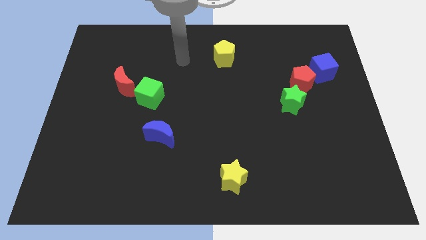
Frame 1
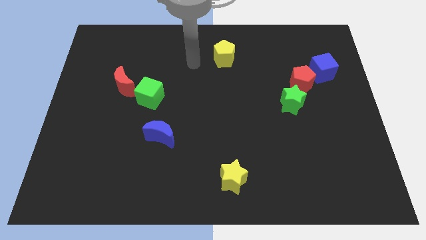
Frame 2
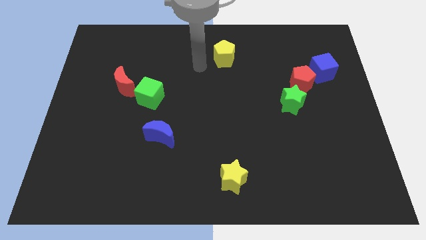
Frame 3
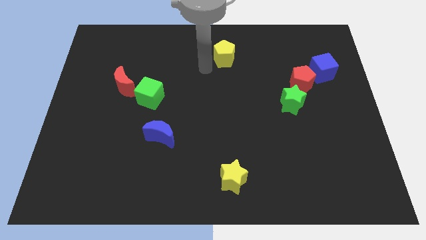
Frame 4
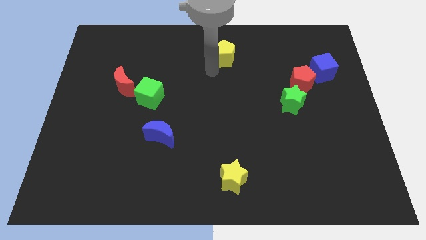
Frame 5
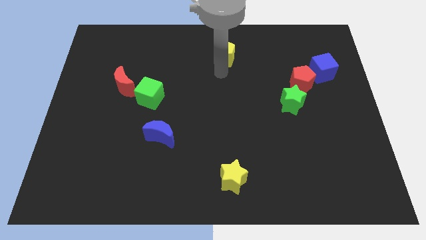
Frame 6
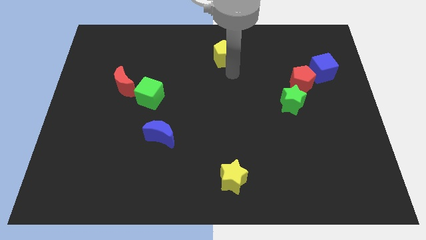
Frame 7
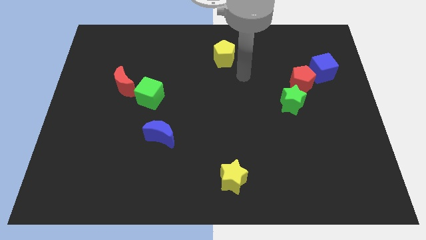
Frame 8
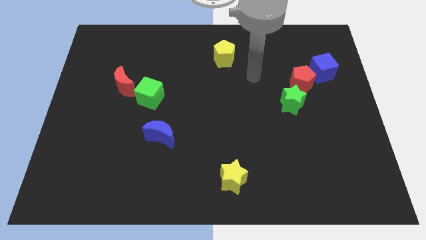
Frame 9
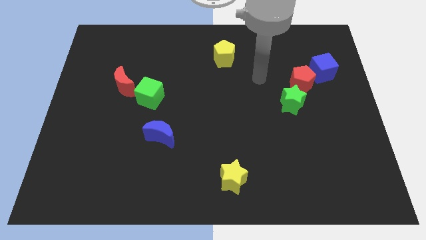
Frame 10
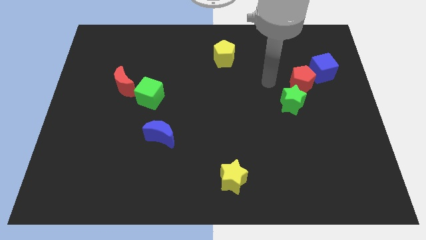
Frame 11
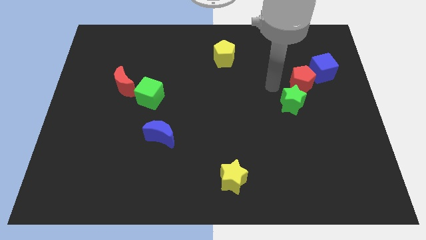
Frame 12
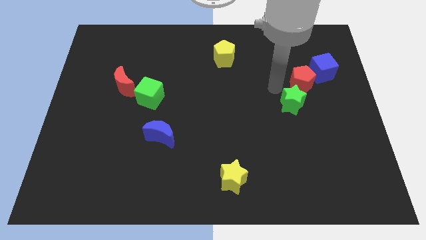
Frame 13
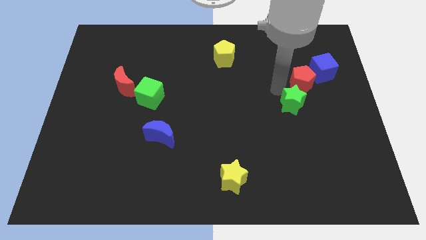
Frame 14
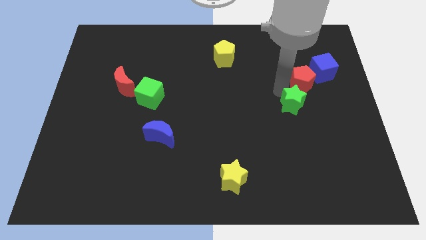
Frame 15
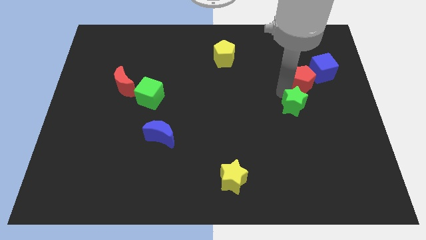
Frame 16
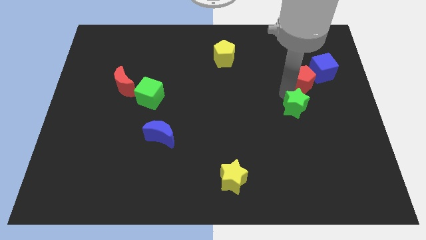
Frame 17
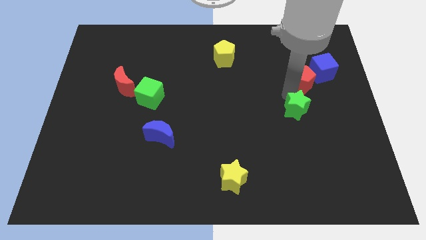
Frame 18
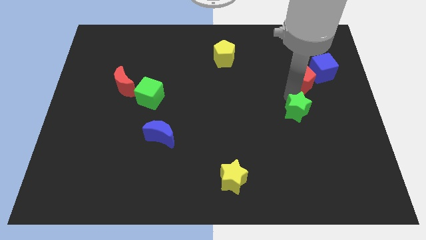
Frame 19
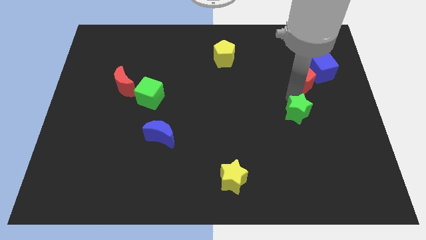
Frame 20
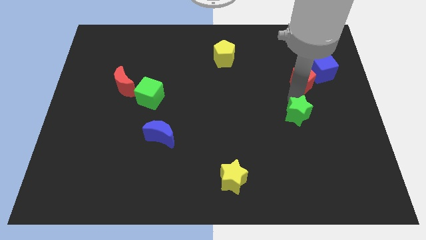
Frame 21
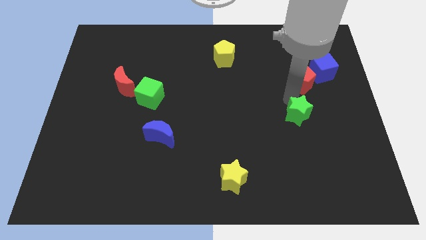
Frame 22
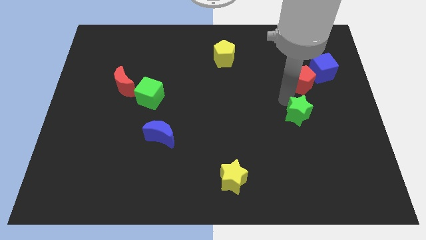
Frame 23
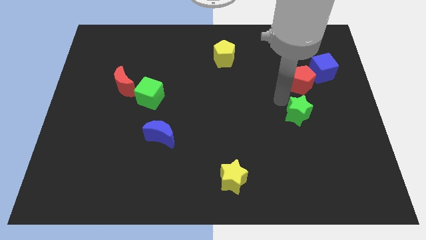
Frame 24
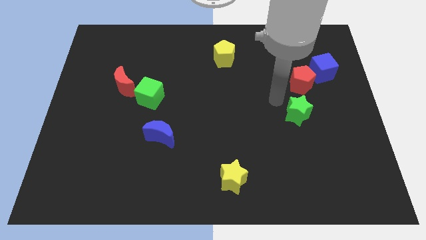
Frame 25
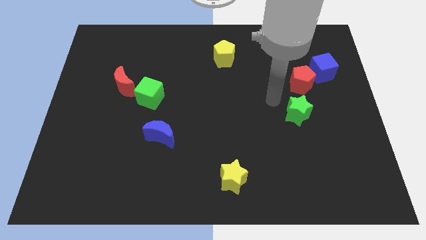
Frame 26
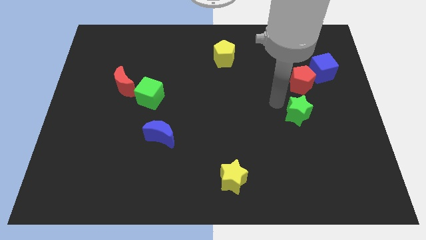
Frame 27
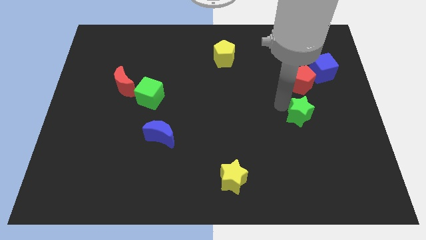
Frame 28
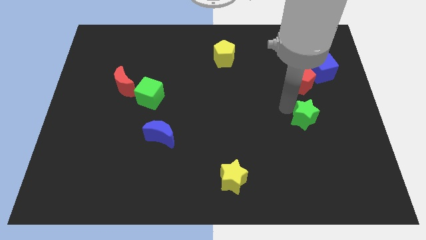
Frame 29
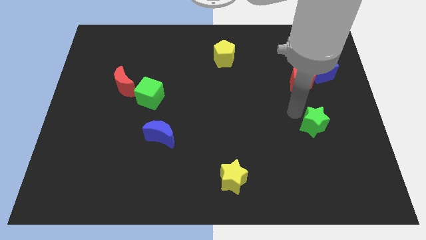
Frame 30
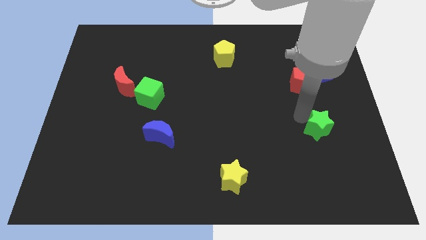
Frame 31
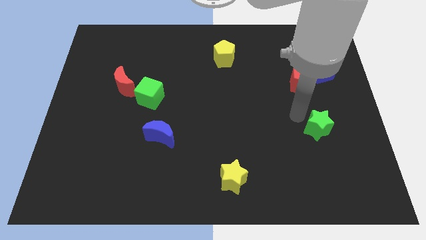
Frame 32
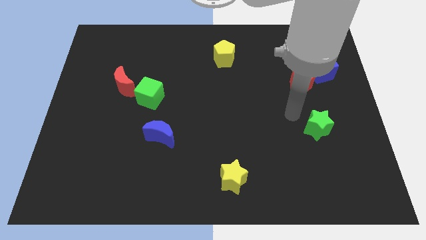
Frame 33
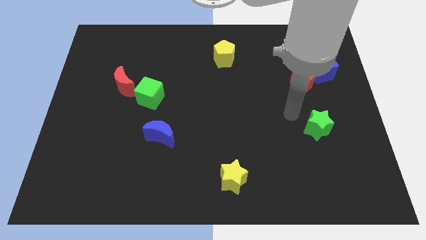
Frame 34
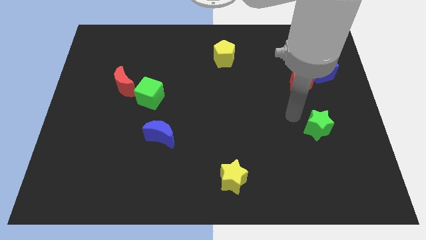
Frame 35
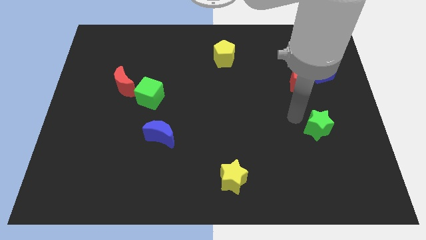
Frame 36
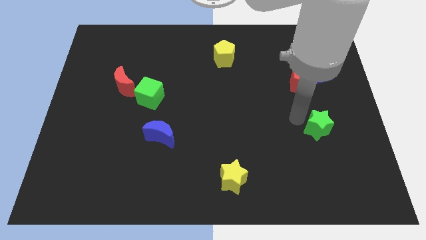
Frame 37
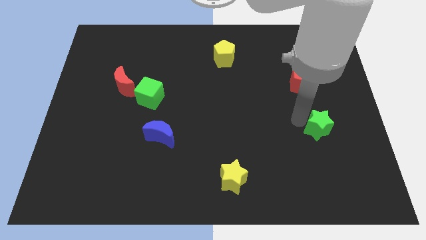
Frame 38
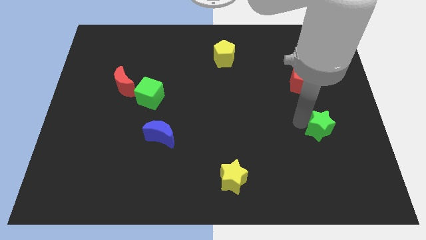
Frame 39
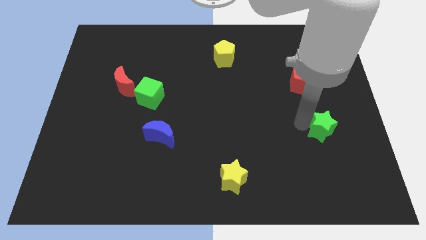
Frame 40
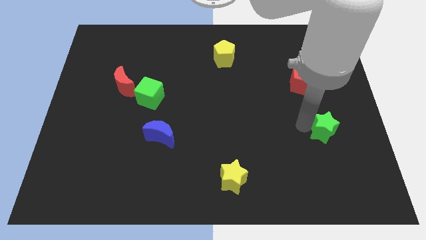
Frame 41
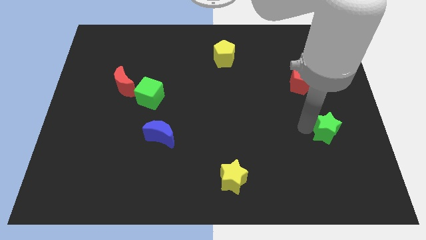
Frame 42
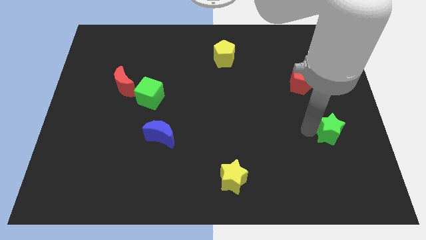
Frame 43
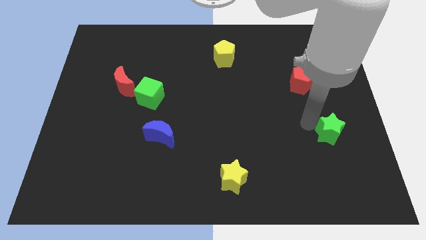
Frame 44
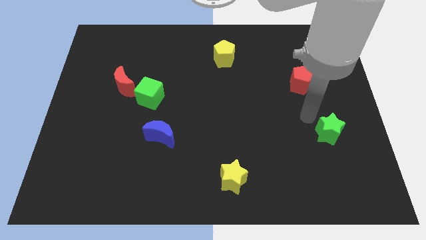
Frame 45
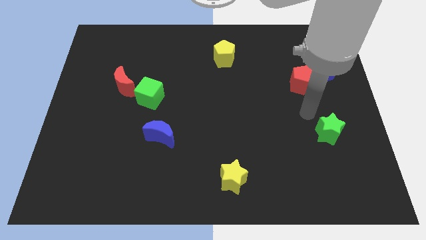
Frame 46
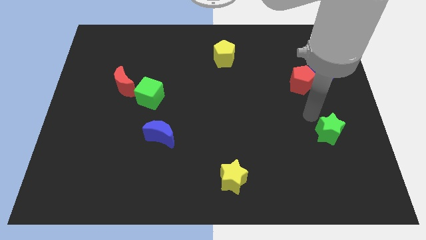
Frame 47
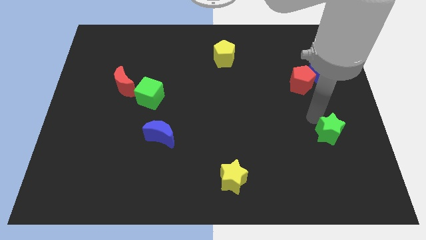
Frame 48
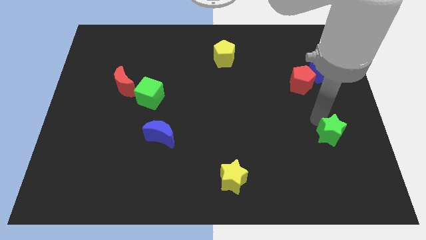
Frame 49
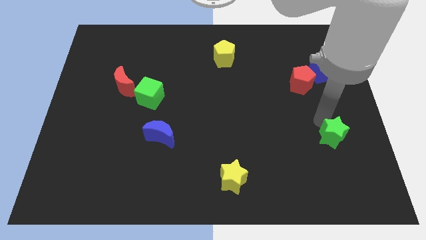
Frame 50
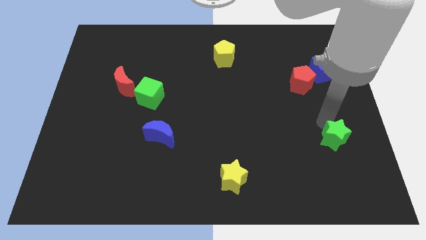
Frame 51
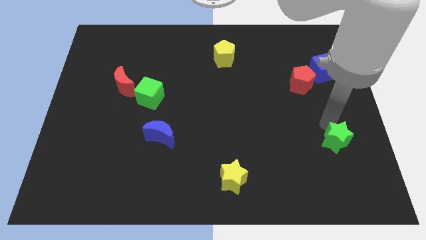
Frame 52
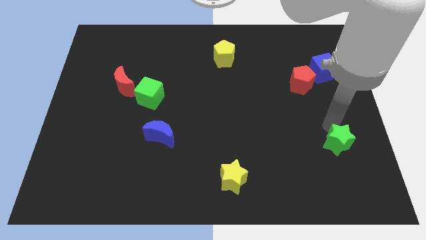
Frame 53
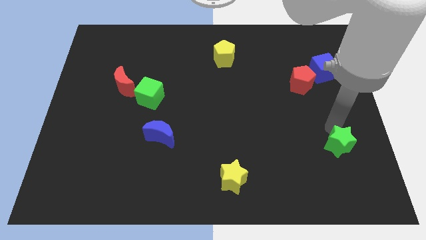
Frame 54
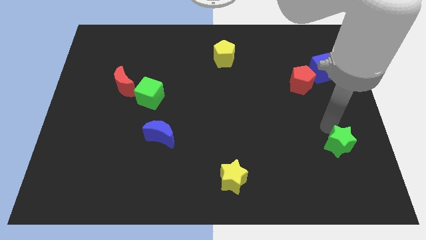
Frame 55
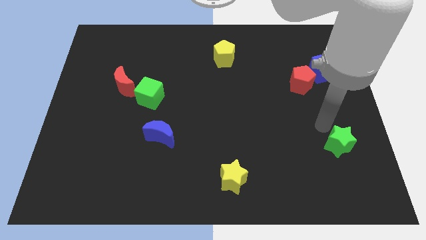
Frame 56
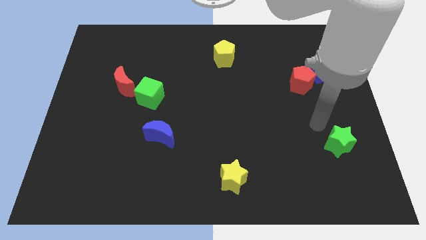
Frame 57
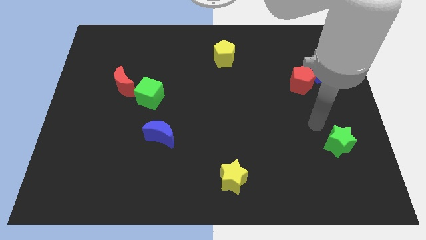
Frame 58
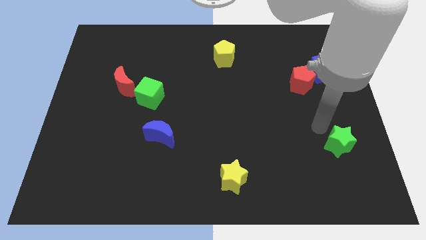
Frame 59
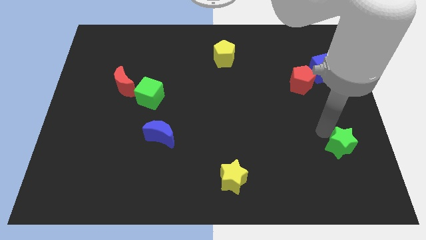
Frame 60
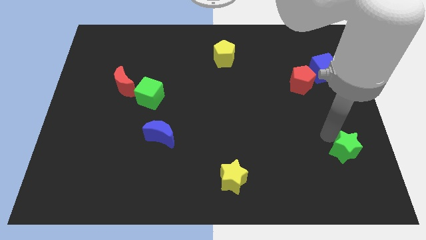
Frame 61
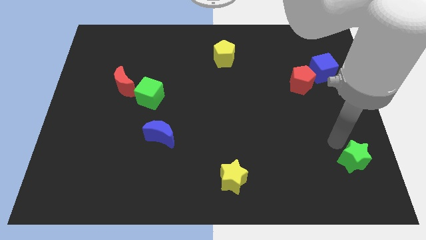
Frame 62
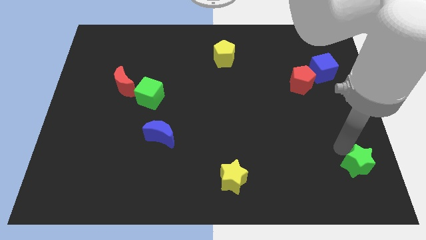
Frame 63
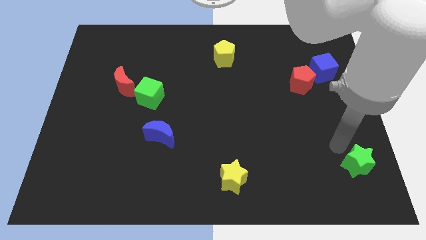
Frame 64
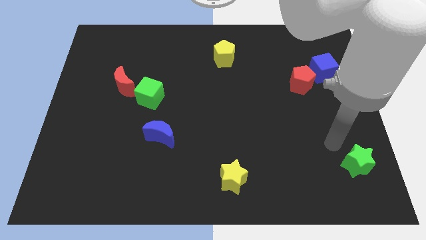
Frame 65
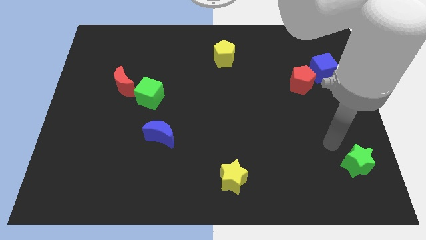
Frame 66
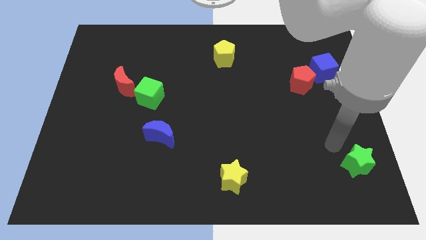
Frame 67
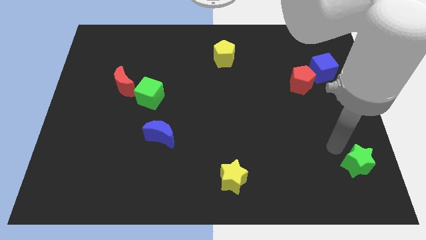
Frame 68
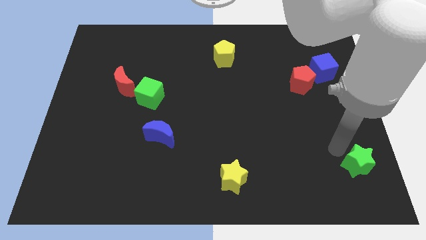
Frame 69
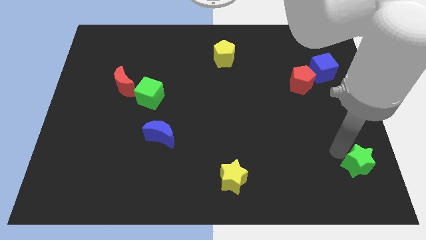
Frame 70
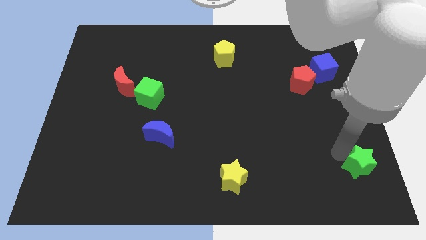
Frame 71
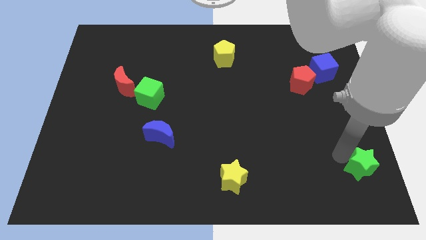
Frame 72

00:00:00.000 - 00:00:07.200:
slide the green star to the bottom right
